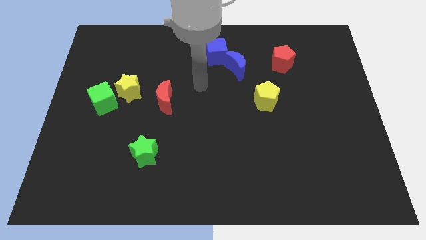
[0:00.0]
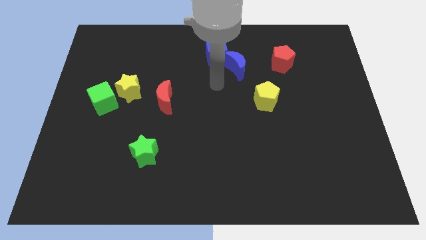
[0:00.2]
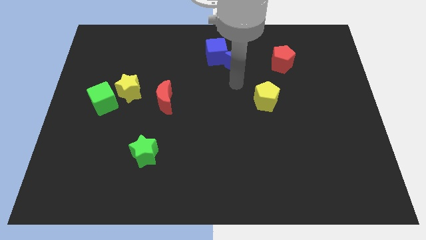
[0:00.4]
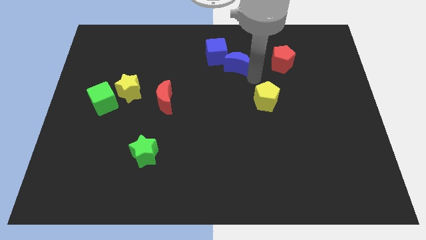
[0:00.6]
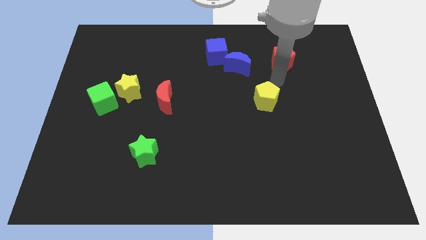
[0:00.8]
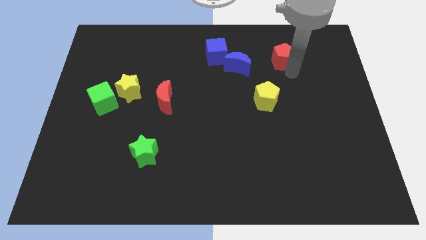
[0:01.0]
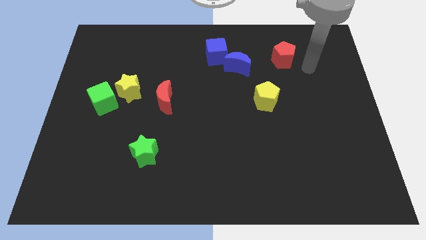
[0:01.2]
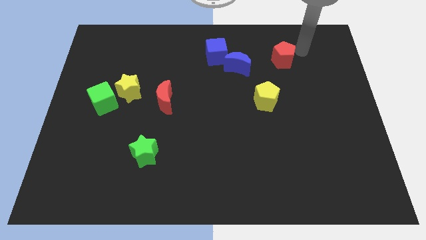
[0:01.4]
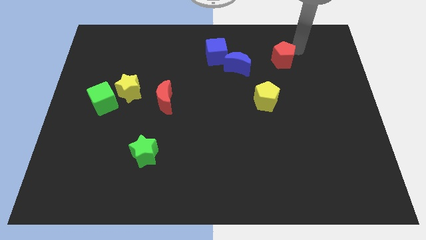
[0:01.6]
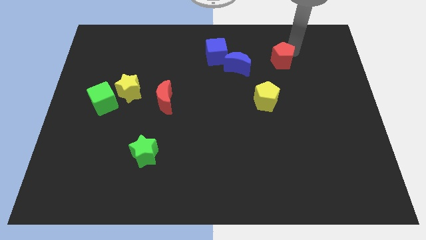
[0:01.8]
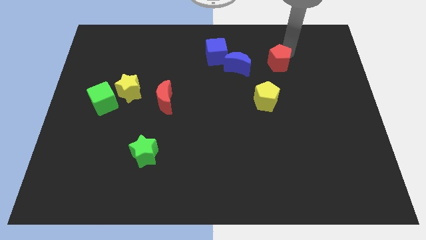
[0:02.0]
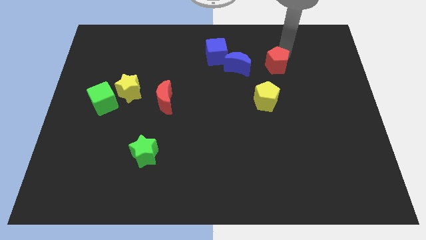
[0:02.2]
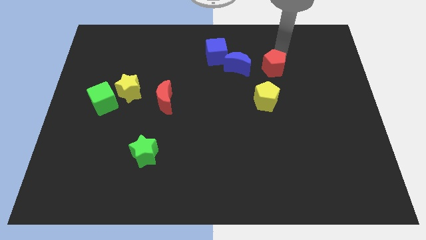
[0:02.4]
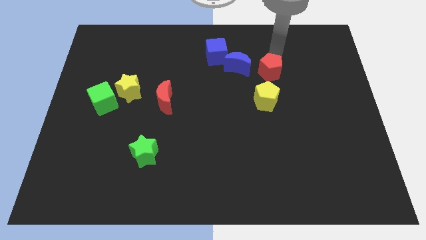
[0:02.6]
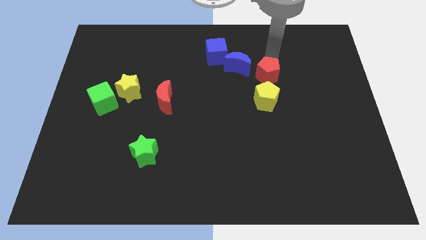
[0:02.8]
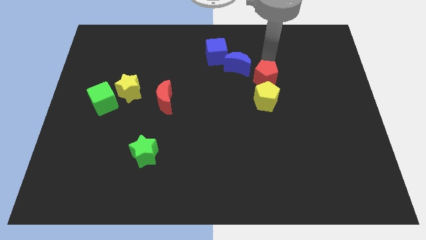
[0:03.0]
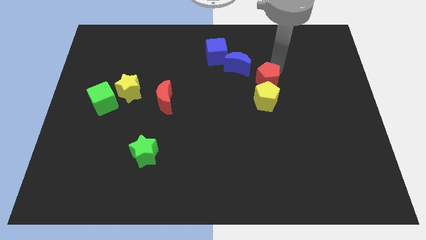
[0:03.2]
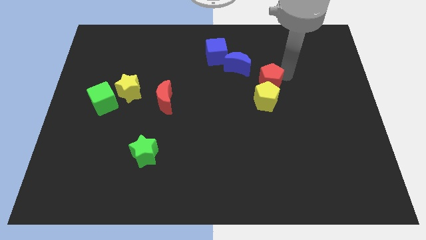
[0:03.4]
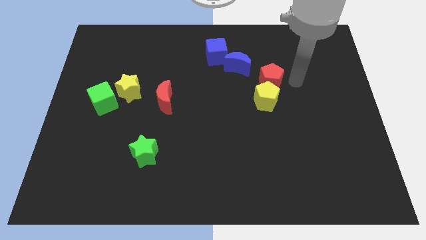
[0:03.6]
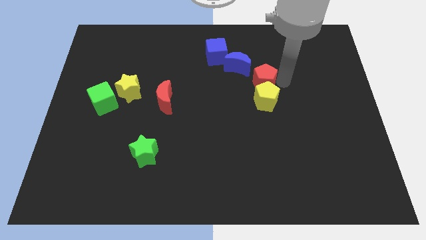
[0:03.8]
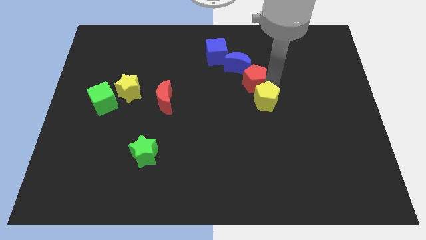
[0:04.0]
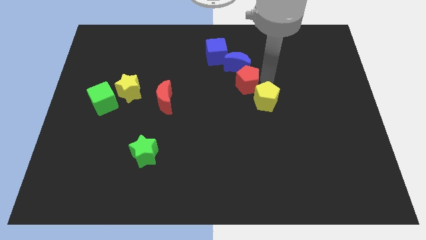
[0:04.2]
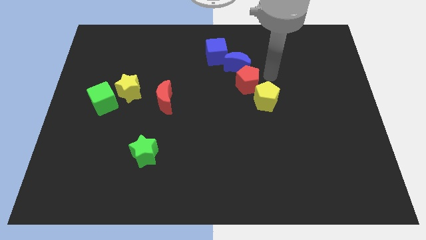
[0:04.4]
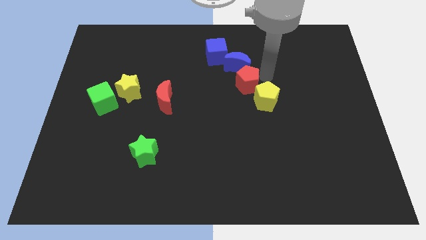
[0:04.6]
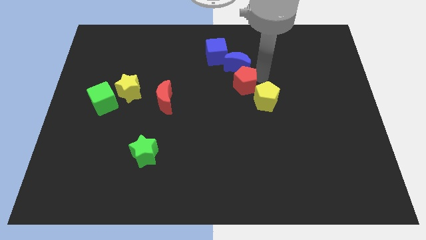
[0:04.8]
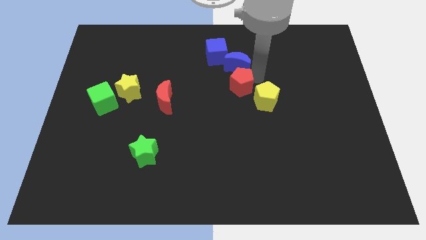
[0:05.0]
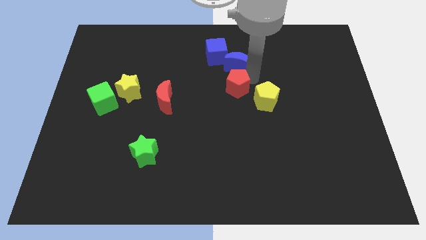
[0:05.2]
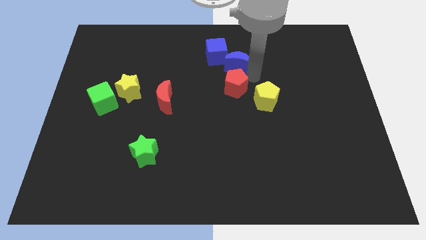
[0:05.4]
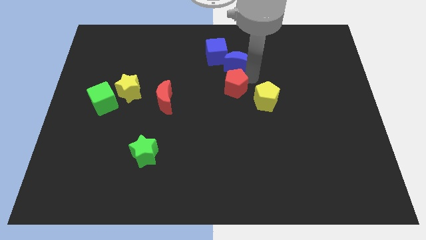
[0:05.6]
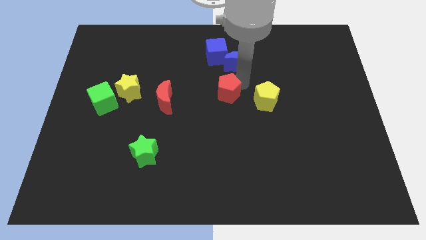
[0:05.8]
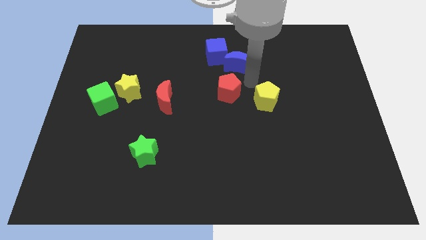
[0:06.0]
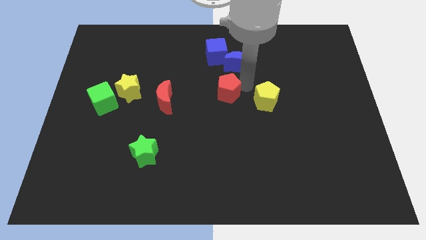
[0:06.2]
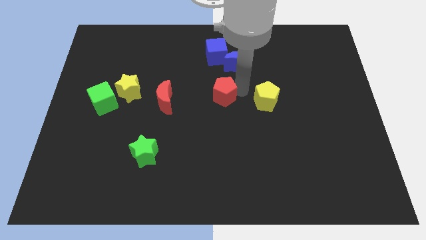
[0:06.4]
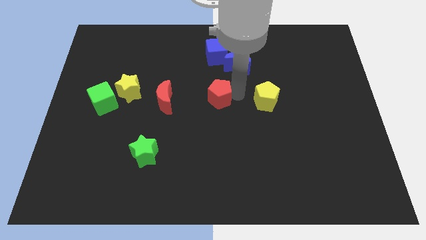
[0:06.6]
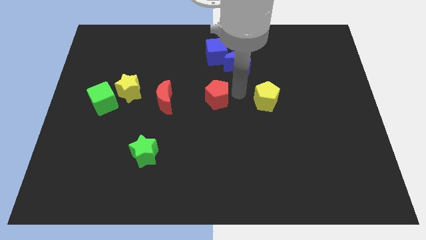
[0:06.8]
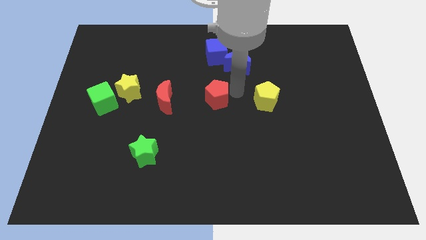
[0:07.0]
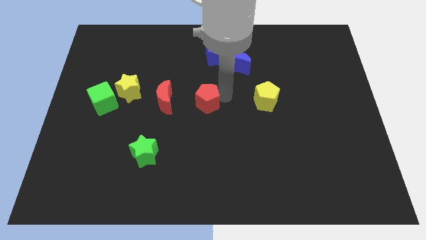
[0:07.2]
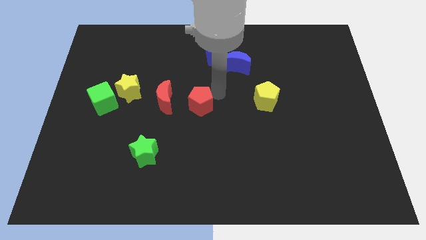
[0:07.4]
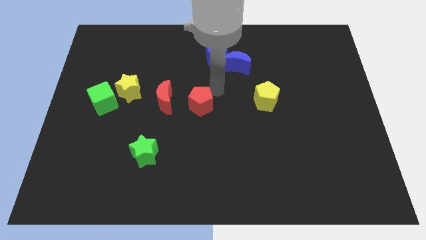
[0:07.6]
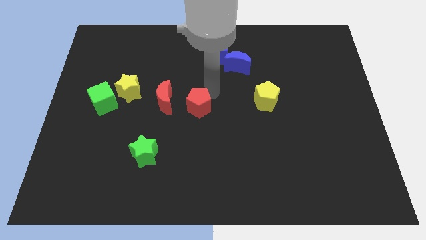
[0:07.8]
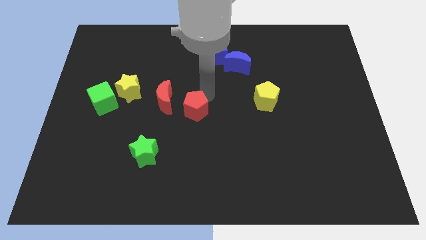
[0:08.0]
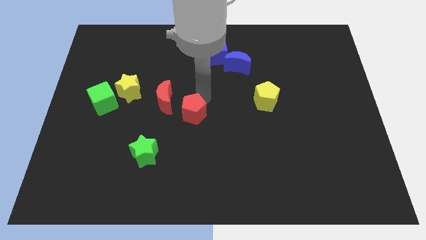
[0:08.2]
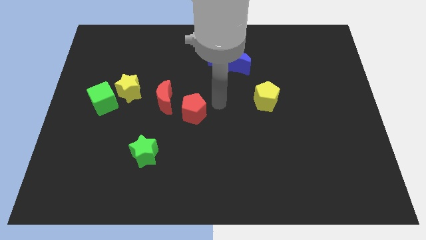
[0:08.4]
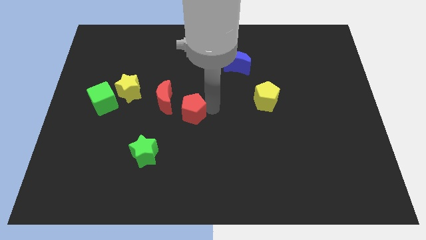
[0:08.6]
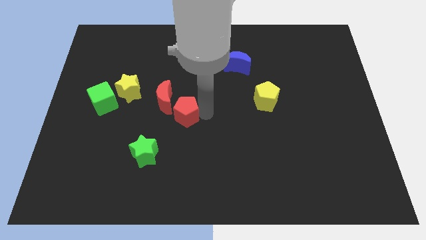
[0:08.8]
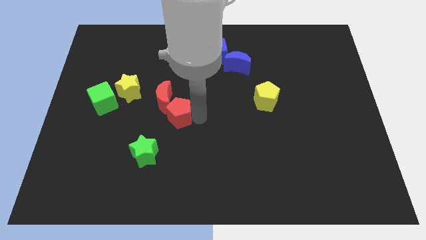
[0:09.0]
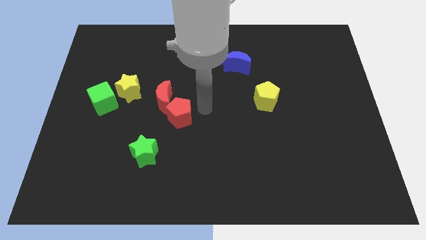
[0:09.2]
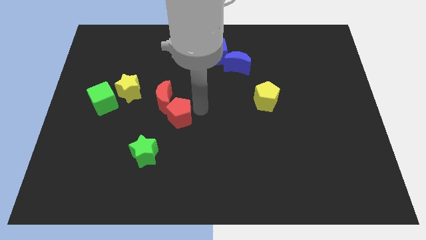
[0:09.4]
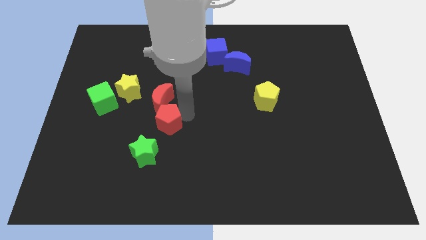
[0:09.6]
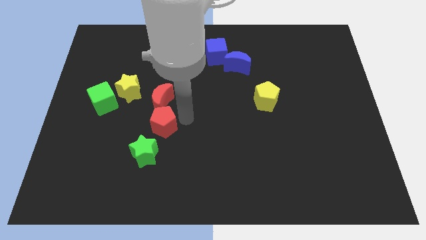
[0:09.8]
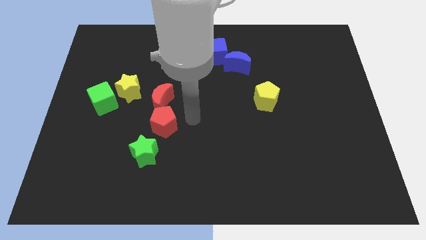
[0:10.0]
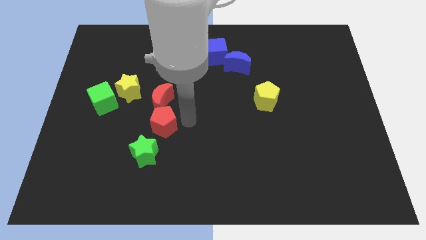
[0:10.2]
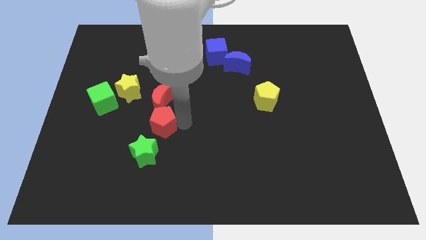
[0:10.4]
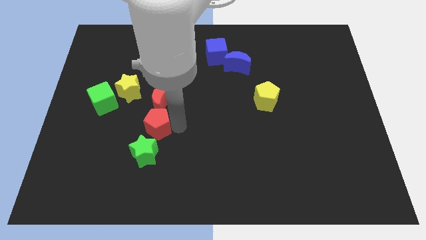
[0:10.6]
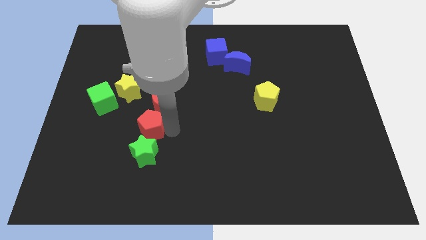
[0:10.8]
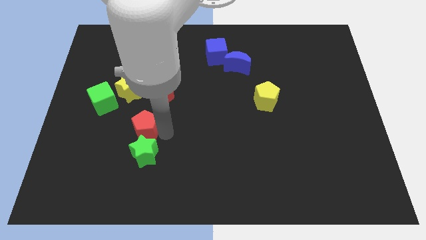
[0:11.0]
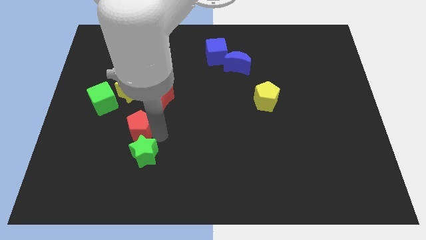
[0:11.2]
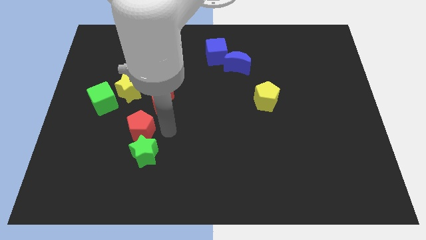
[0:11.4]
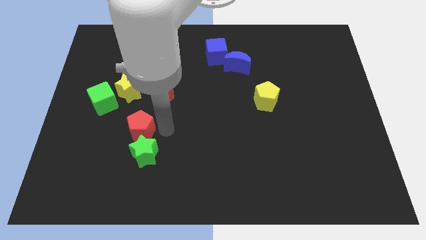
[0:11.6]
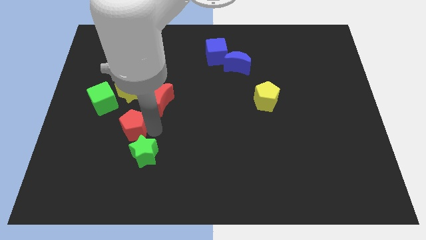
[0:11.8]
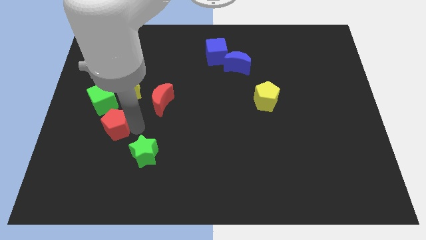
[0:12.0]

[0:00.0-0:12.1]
slide the red pentagon below the green cube

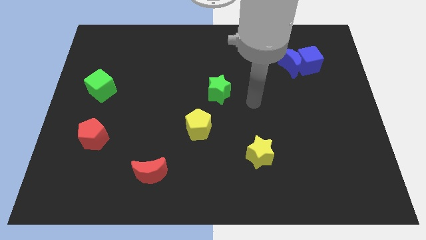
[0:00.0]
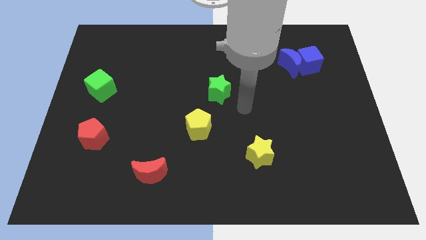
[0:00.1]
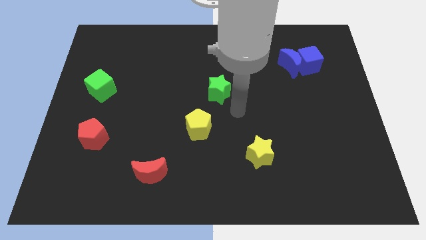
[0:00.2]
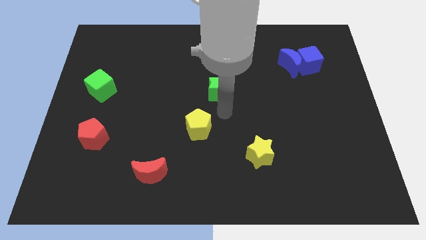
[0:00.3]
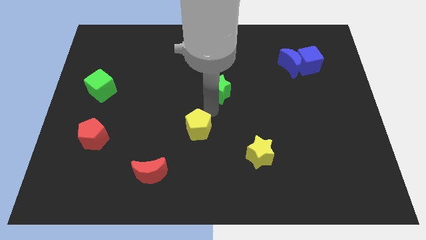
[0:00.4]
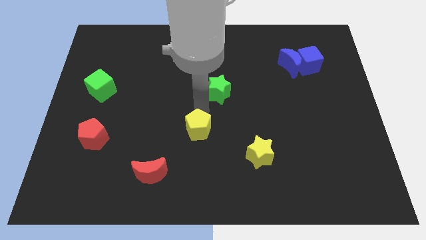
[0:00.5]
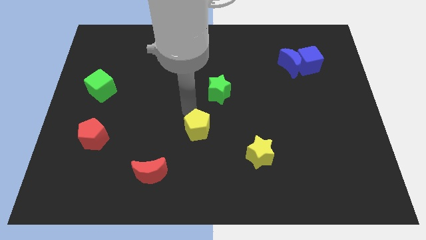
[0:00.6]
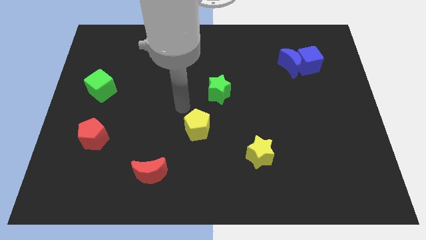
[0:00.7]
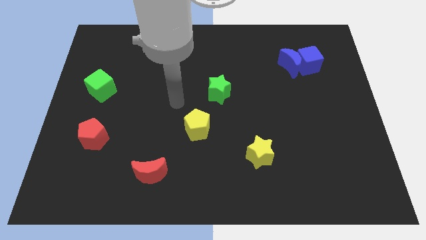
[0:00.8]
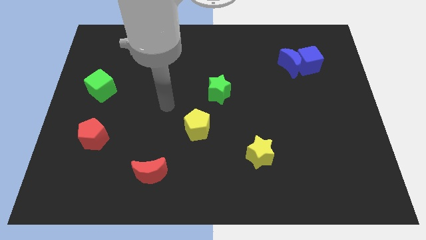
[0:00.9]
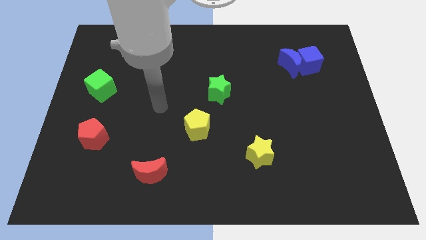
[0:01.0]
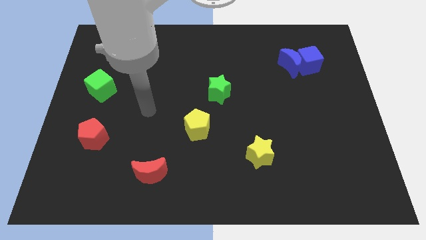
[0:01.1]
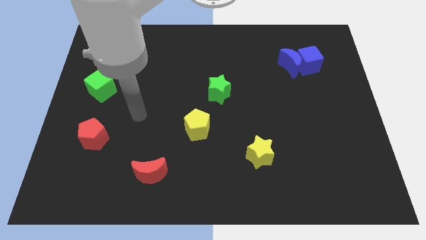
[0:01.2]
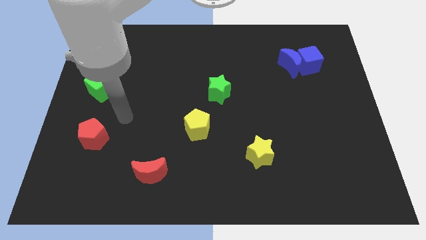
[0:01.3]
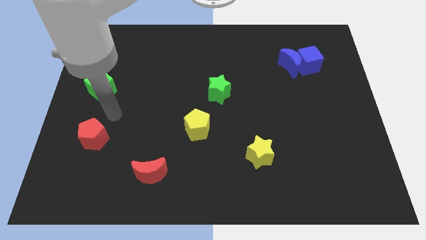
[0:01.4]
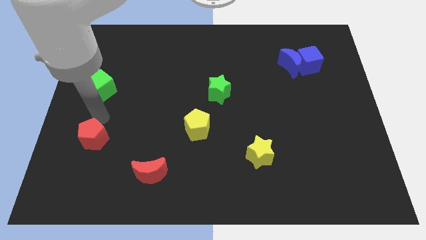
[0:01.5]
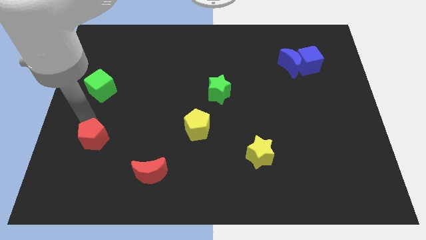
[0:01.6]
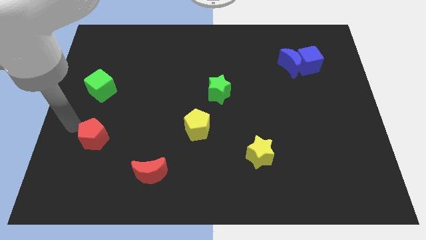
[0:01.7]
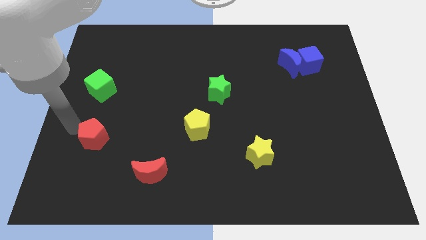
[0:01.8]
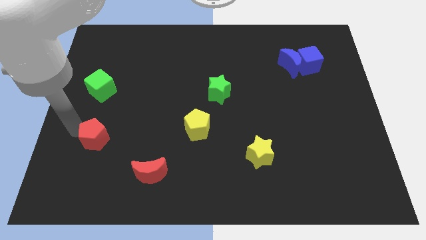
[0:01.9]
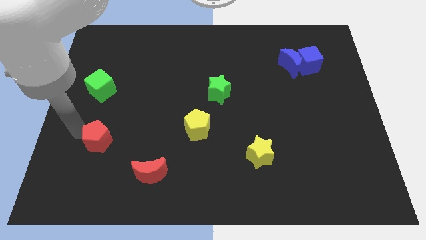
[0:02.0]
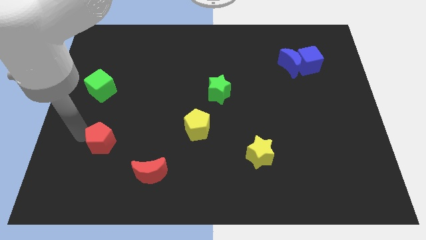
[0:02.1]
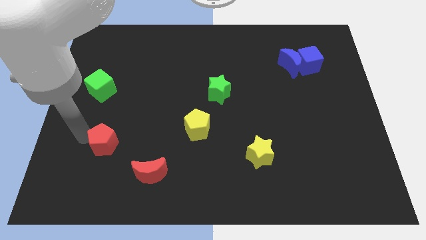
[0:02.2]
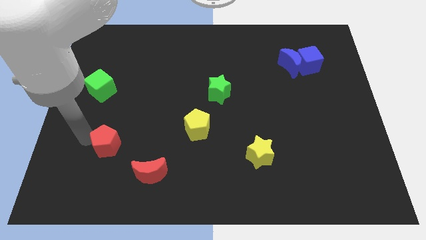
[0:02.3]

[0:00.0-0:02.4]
slide the red pentagon to the top left side of the red moon
